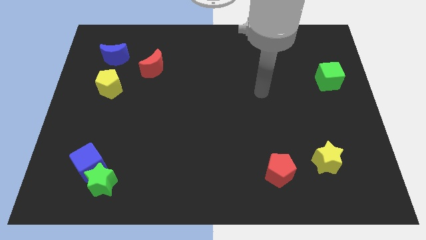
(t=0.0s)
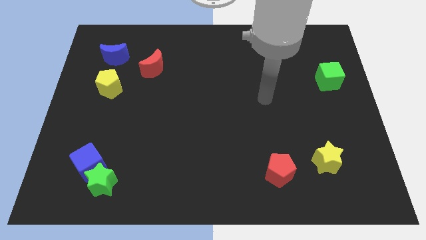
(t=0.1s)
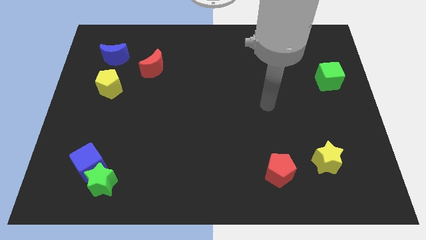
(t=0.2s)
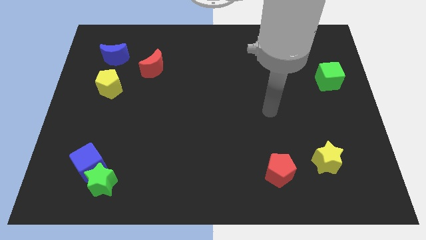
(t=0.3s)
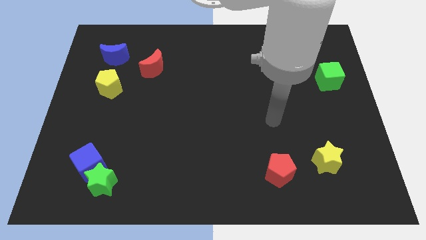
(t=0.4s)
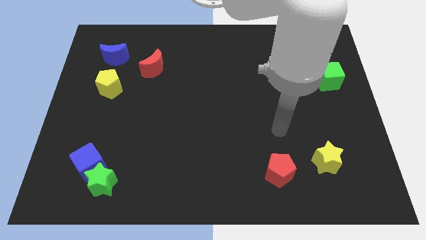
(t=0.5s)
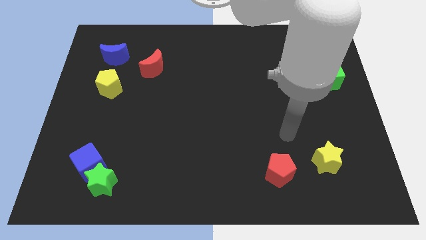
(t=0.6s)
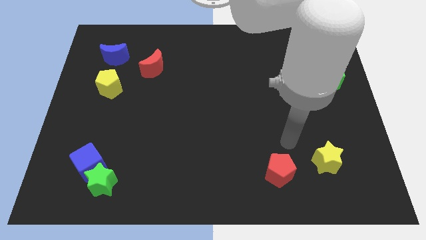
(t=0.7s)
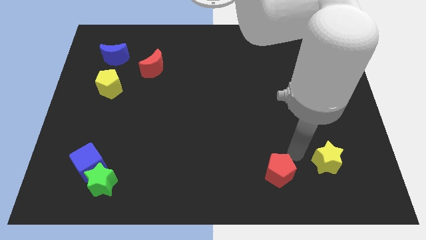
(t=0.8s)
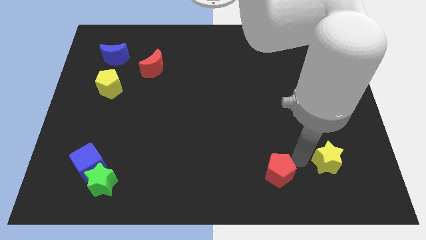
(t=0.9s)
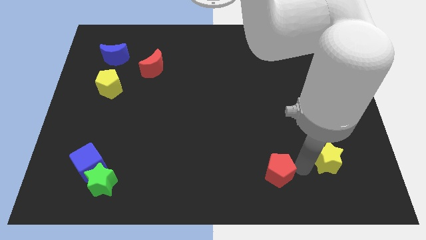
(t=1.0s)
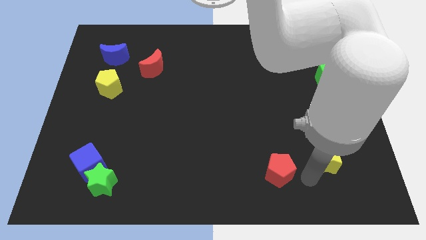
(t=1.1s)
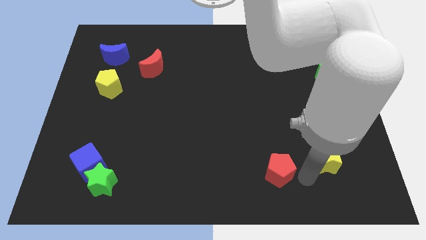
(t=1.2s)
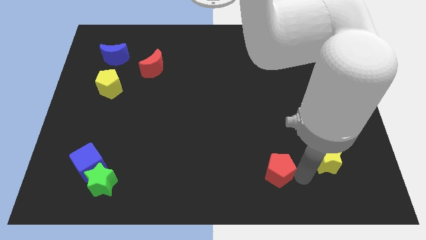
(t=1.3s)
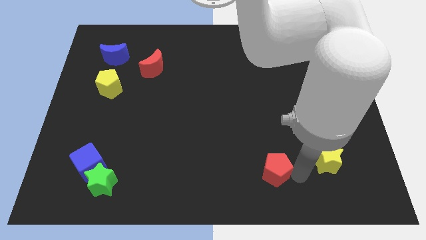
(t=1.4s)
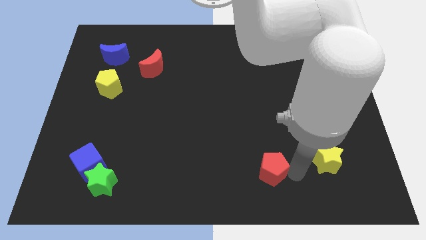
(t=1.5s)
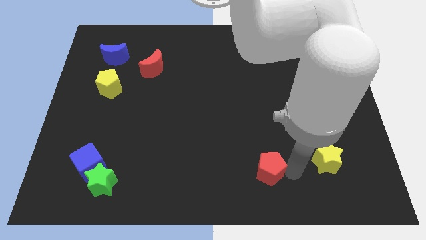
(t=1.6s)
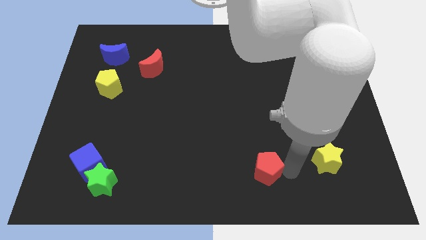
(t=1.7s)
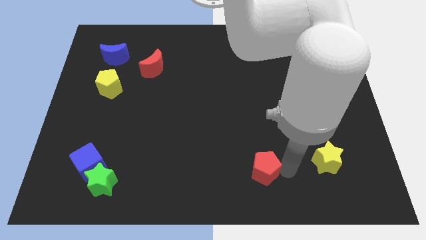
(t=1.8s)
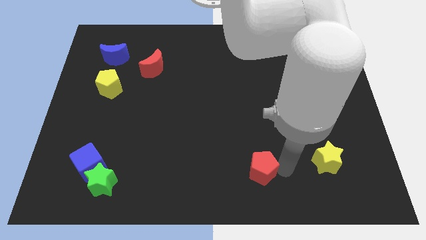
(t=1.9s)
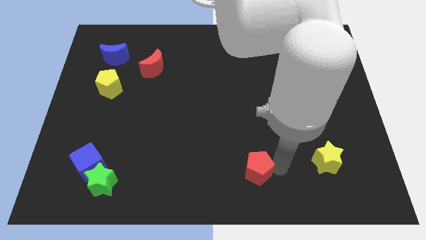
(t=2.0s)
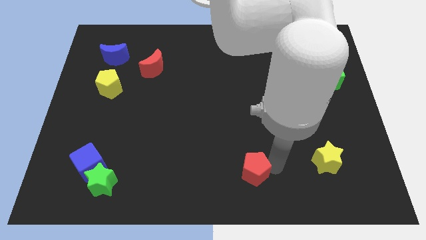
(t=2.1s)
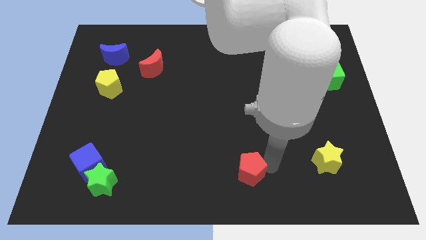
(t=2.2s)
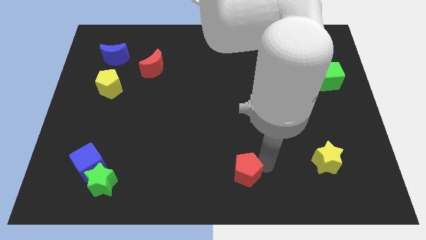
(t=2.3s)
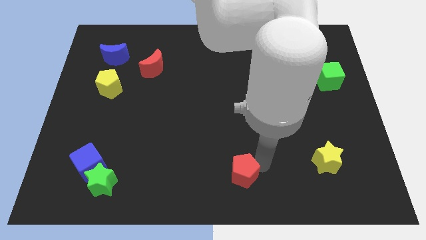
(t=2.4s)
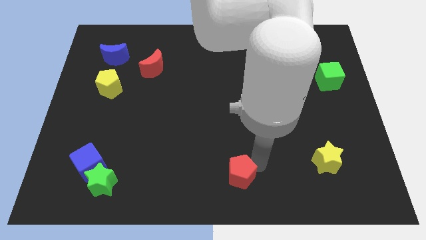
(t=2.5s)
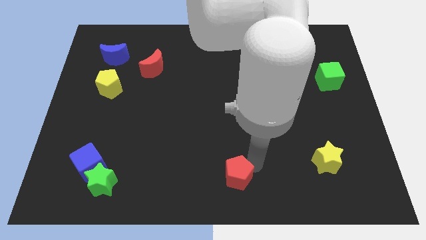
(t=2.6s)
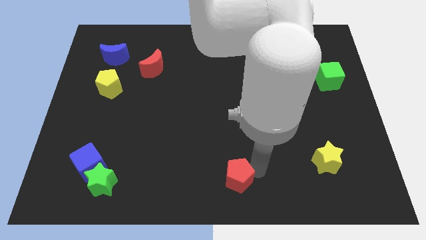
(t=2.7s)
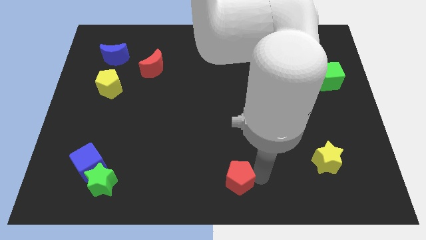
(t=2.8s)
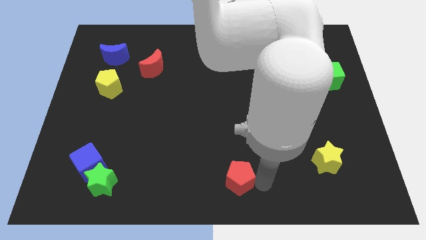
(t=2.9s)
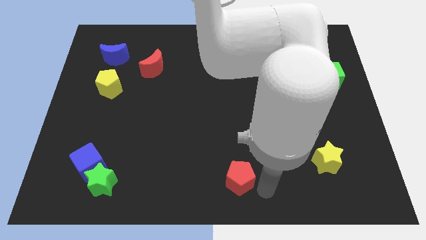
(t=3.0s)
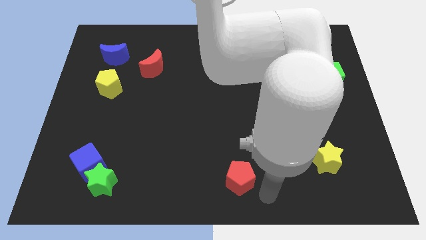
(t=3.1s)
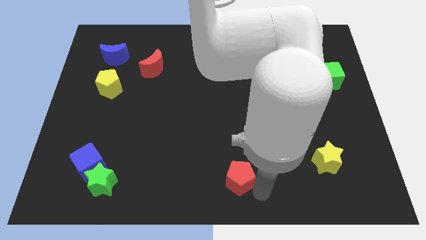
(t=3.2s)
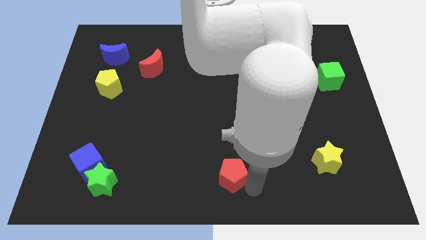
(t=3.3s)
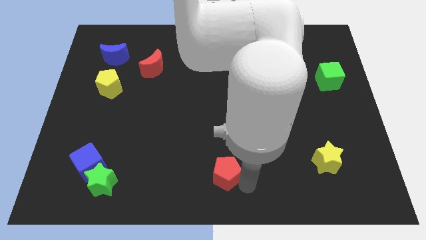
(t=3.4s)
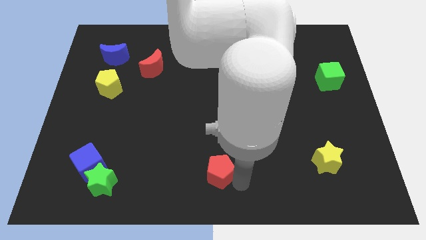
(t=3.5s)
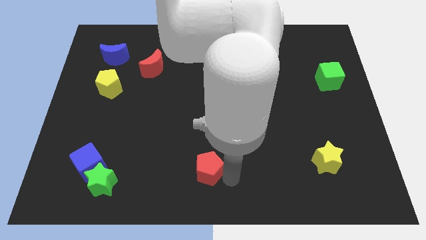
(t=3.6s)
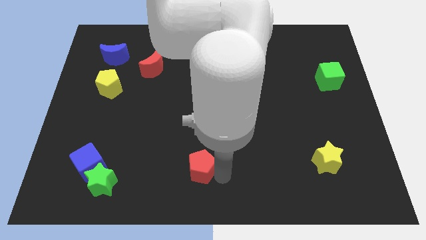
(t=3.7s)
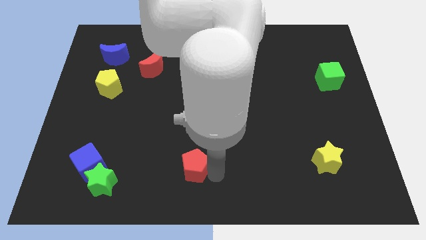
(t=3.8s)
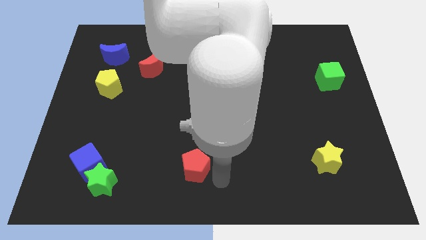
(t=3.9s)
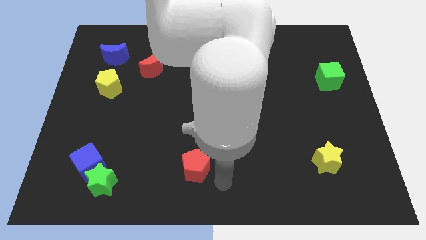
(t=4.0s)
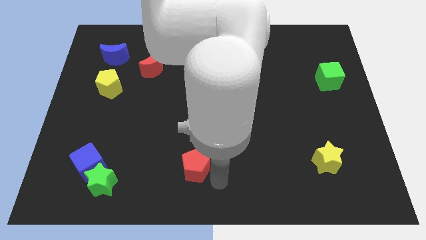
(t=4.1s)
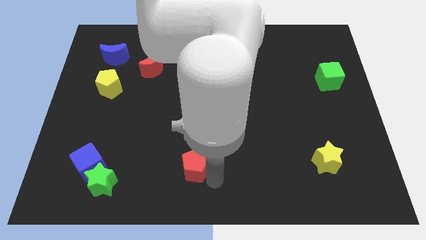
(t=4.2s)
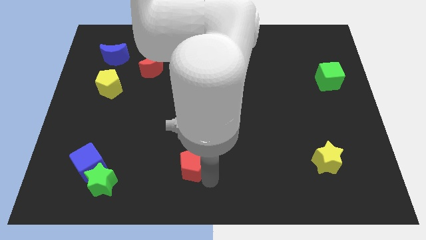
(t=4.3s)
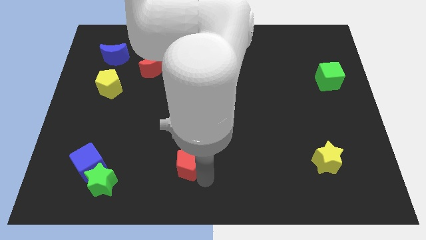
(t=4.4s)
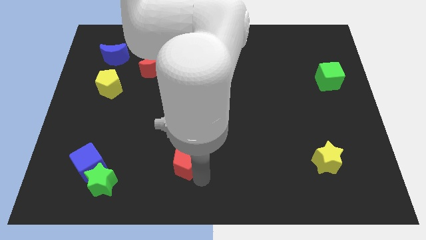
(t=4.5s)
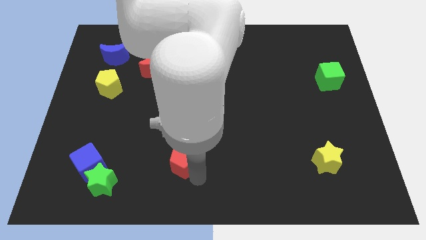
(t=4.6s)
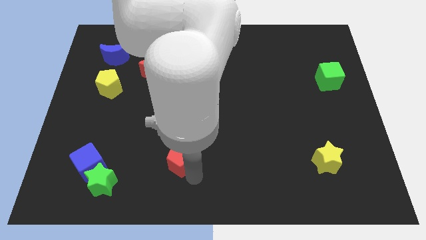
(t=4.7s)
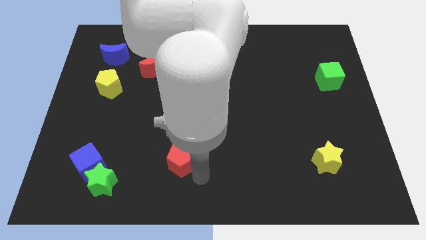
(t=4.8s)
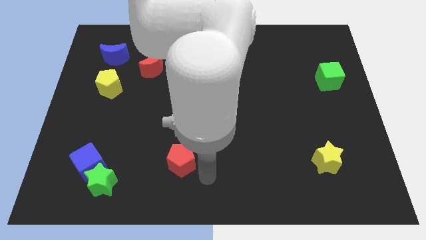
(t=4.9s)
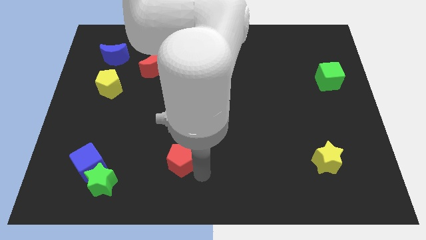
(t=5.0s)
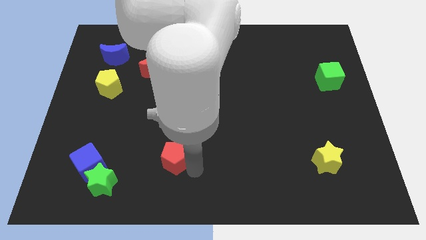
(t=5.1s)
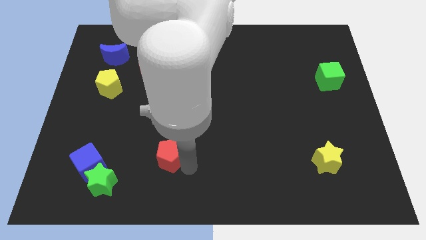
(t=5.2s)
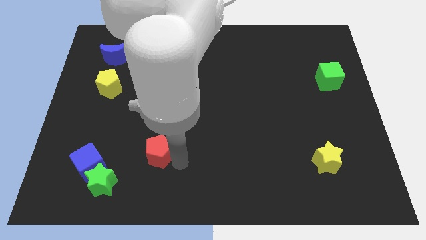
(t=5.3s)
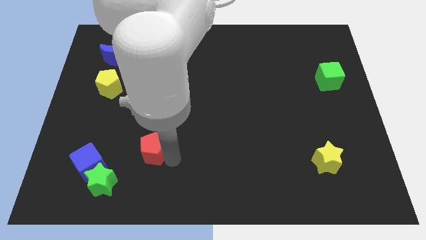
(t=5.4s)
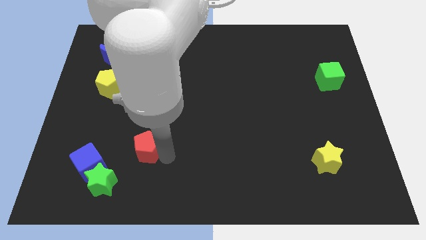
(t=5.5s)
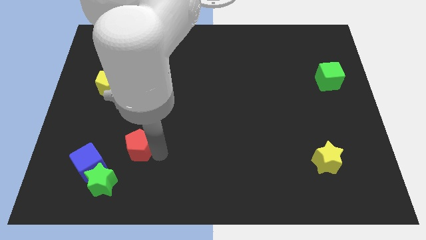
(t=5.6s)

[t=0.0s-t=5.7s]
move the red pentagon diagonally up and to the right of the blue cube

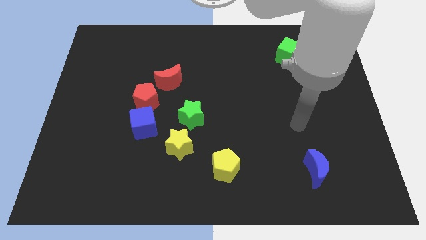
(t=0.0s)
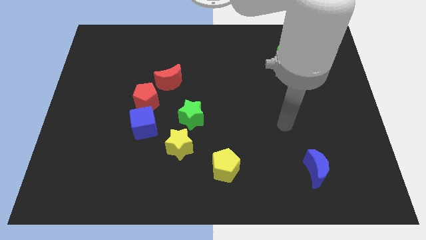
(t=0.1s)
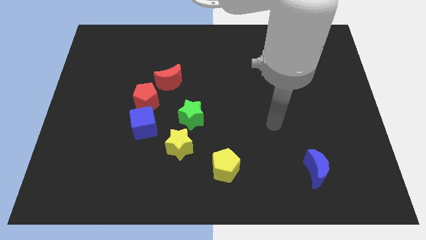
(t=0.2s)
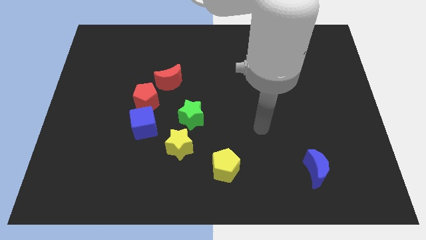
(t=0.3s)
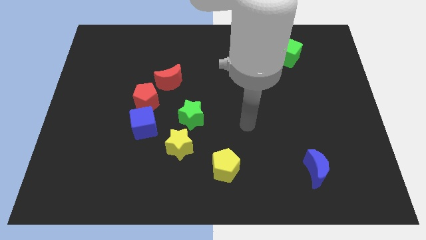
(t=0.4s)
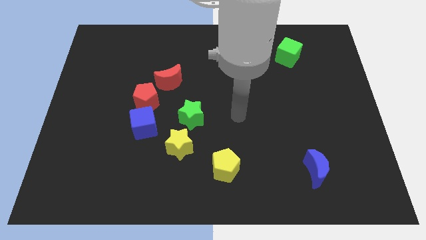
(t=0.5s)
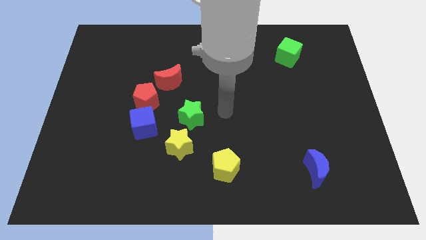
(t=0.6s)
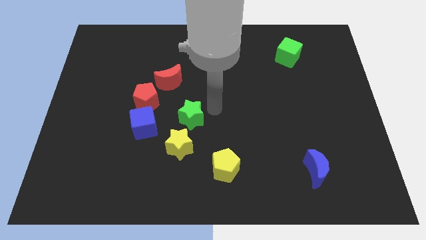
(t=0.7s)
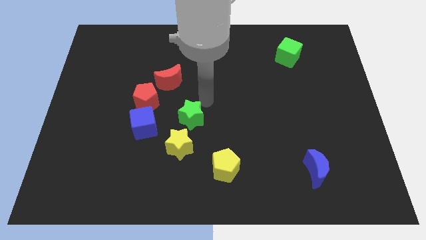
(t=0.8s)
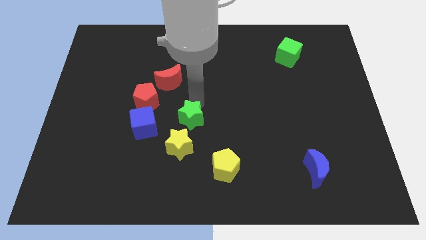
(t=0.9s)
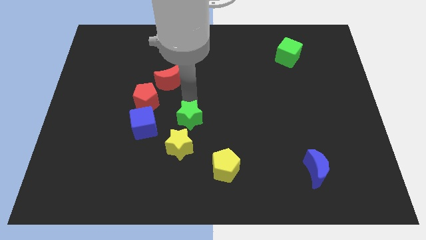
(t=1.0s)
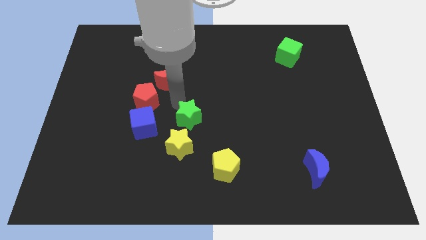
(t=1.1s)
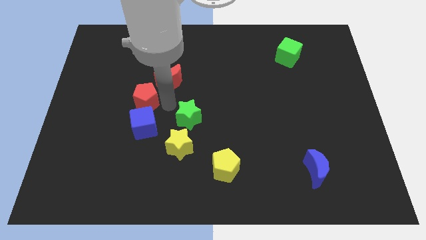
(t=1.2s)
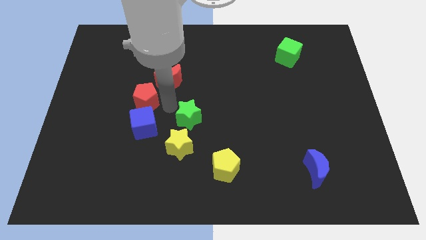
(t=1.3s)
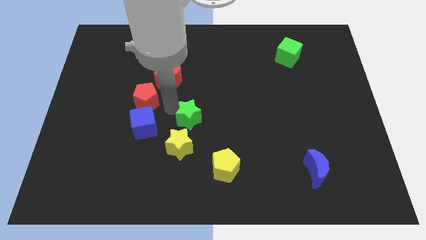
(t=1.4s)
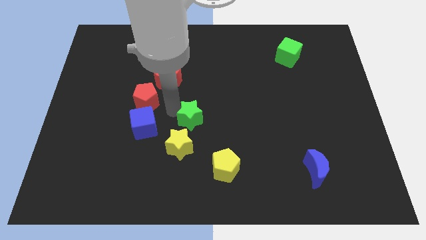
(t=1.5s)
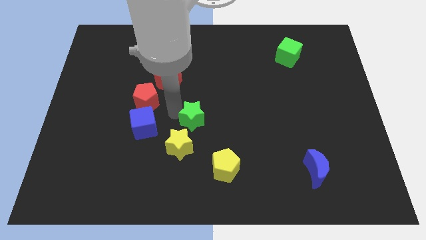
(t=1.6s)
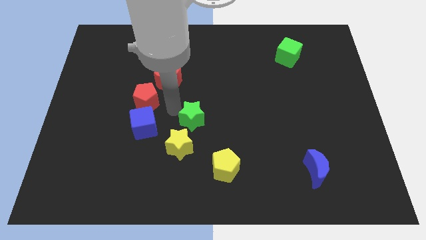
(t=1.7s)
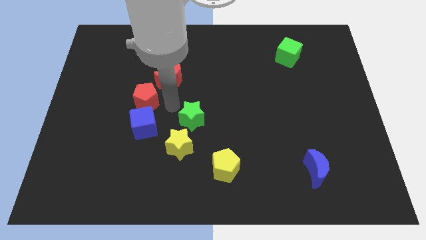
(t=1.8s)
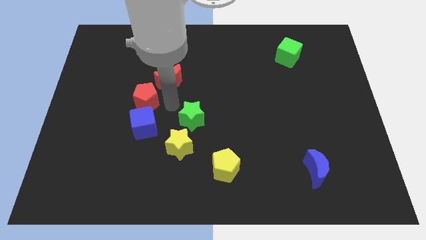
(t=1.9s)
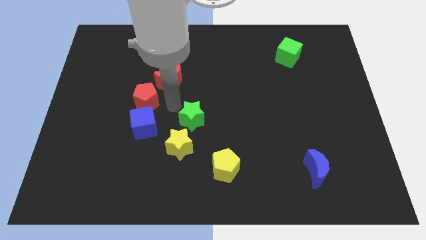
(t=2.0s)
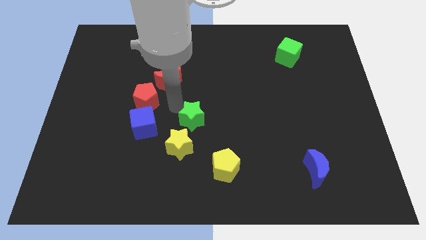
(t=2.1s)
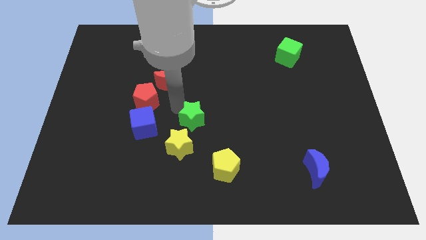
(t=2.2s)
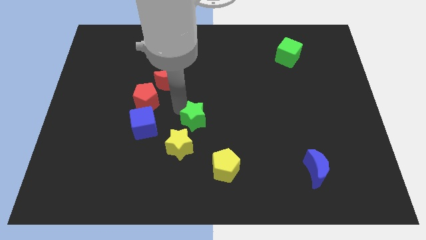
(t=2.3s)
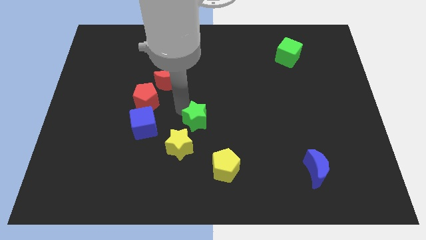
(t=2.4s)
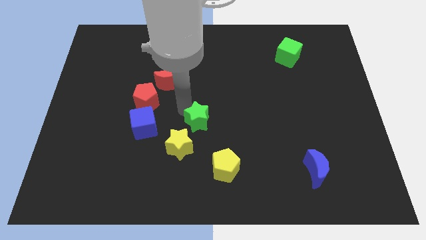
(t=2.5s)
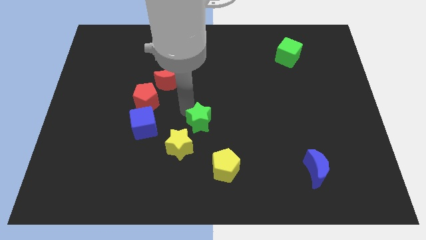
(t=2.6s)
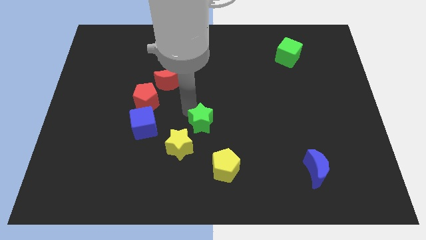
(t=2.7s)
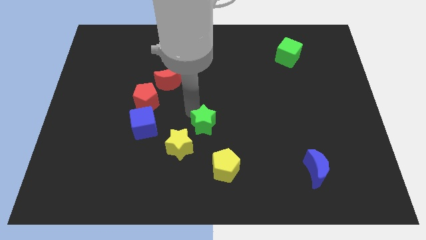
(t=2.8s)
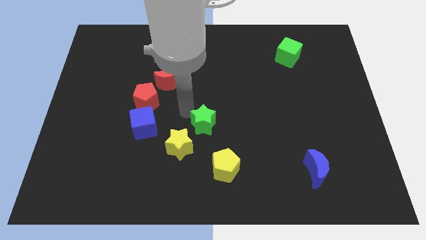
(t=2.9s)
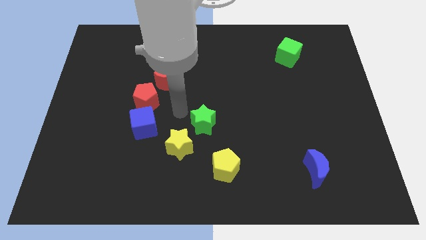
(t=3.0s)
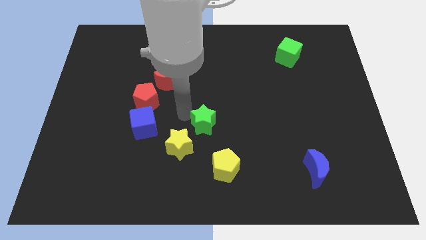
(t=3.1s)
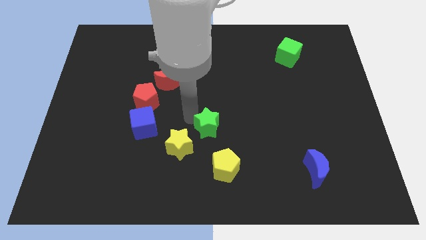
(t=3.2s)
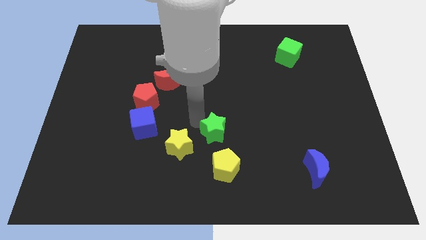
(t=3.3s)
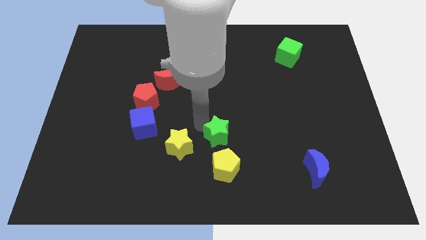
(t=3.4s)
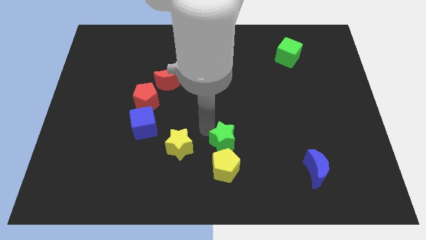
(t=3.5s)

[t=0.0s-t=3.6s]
put the green star to the top right side of the yellow pentagon
